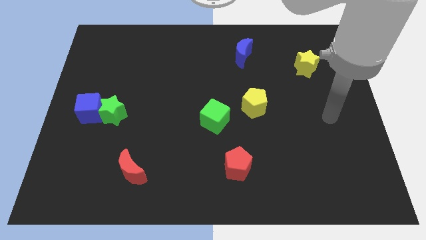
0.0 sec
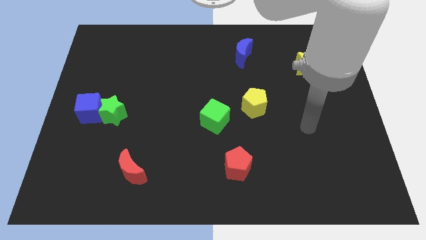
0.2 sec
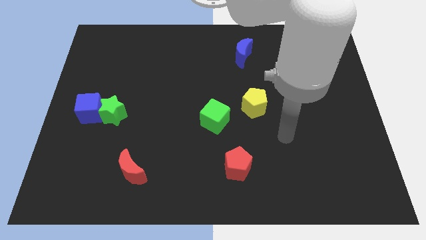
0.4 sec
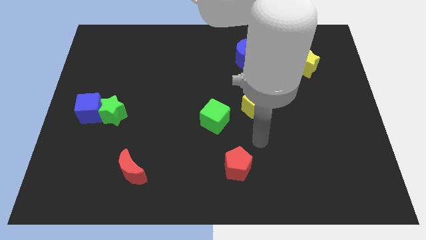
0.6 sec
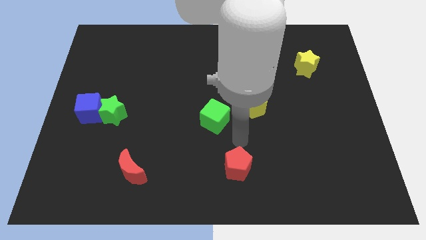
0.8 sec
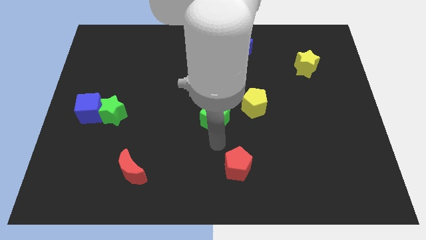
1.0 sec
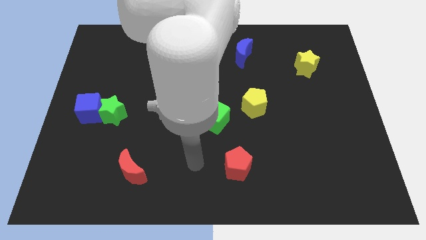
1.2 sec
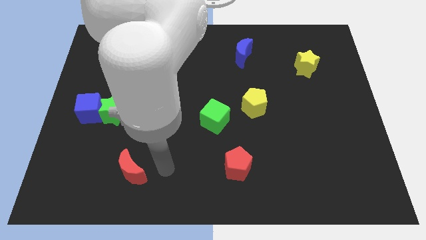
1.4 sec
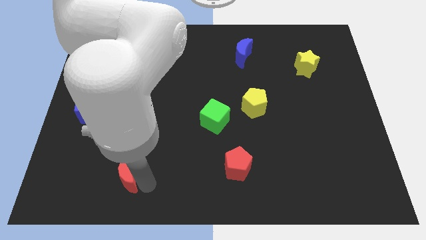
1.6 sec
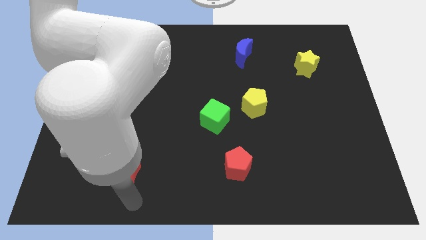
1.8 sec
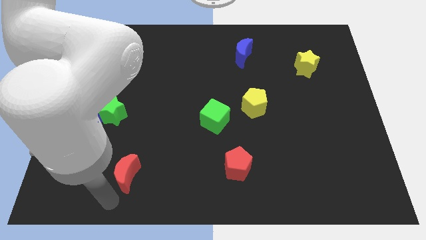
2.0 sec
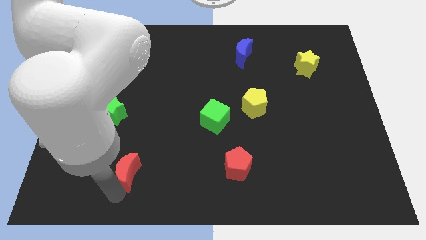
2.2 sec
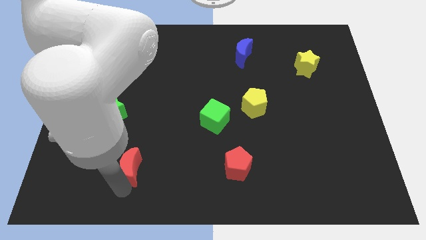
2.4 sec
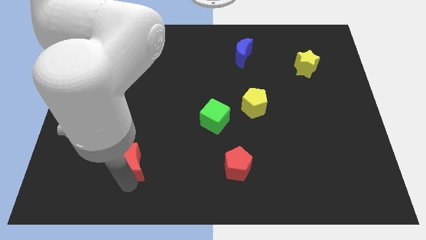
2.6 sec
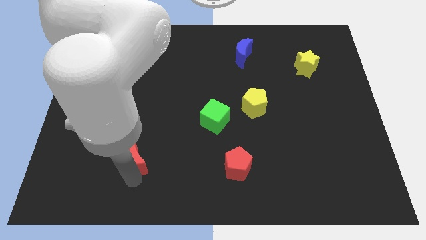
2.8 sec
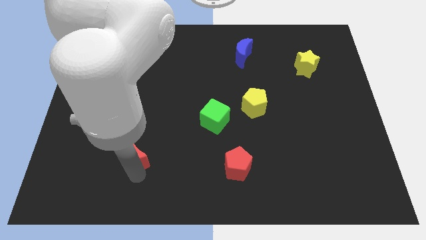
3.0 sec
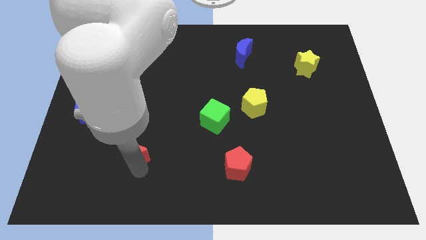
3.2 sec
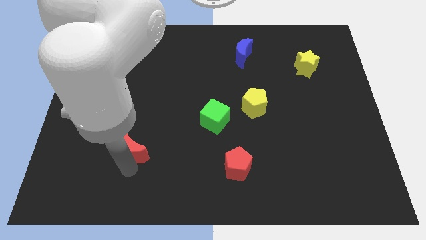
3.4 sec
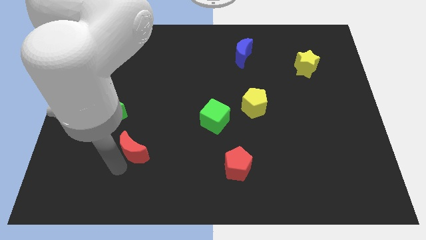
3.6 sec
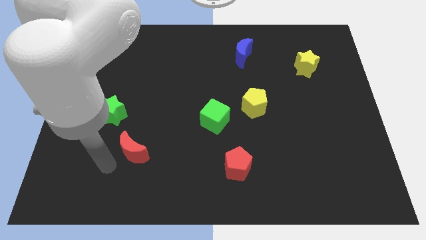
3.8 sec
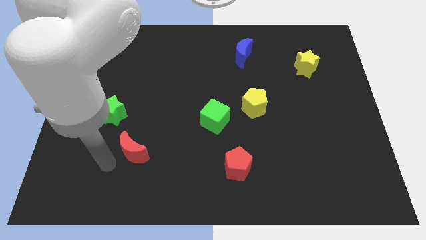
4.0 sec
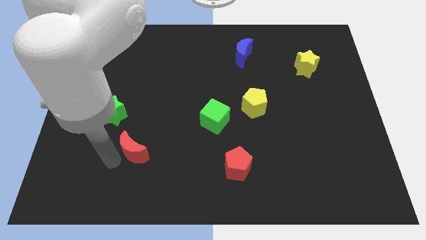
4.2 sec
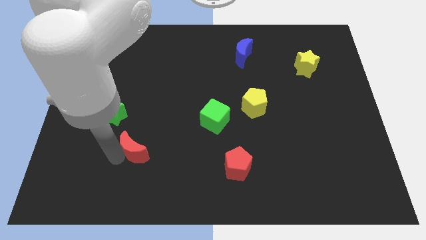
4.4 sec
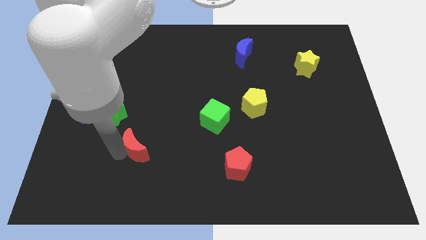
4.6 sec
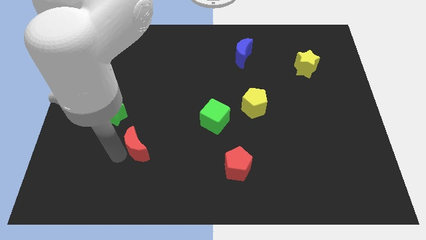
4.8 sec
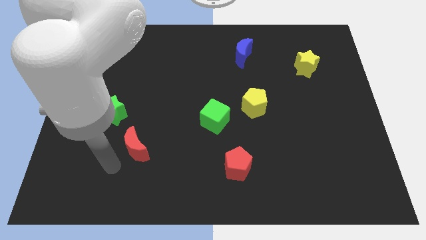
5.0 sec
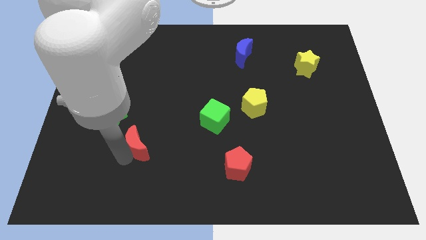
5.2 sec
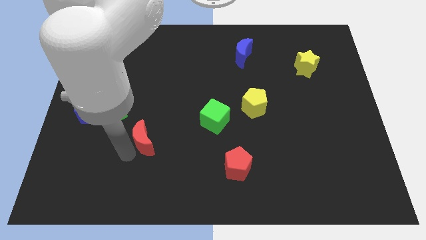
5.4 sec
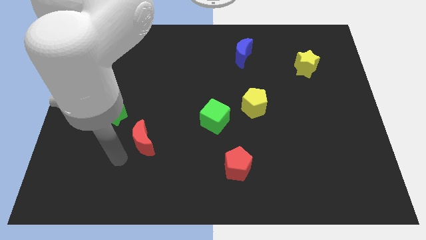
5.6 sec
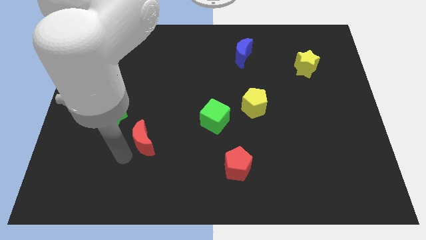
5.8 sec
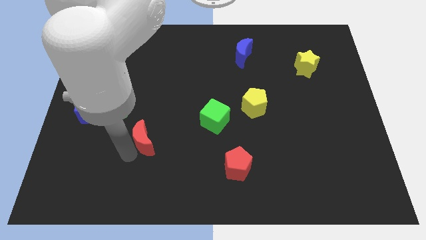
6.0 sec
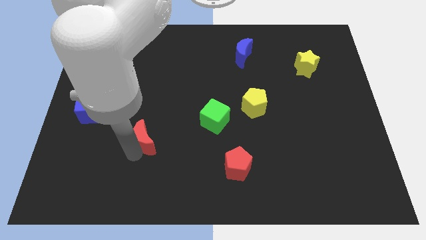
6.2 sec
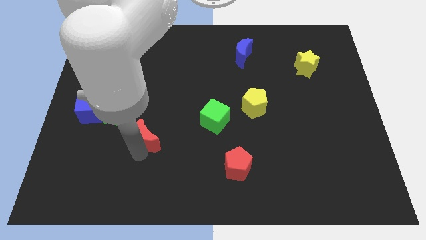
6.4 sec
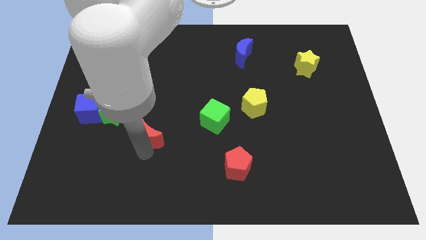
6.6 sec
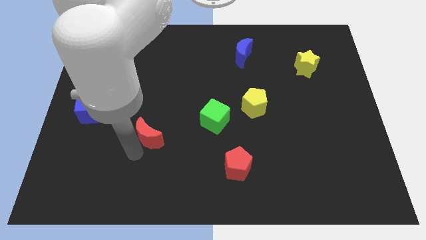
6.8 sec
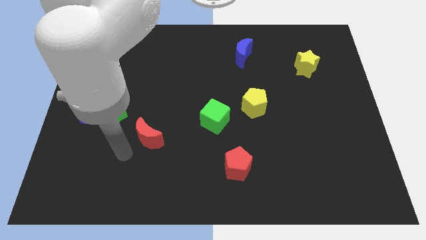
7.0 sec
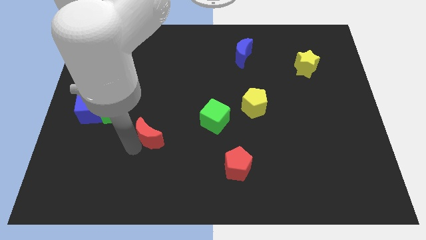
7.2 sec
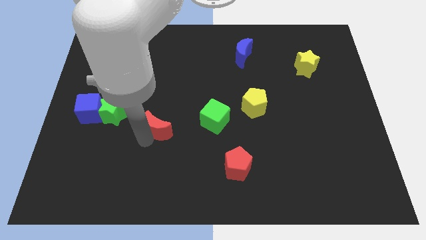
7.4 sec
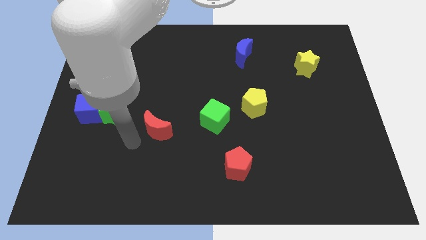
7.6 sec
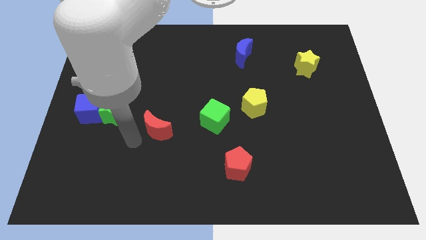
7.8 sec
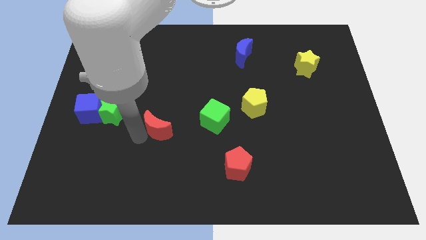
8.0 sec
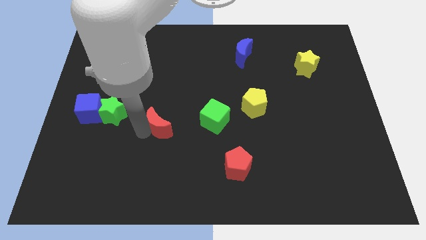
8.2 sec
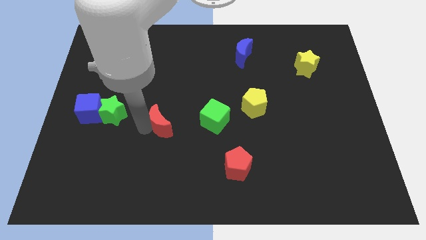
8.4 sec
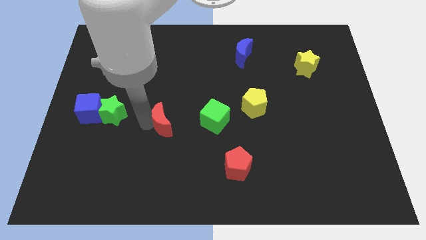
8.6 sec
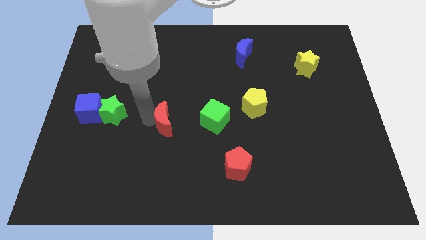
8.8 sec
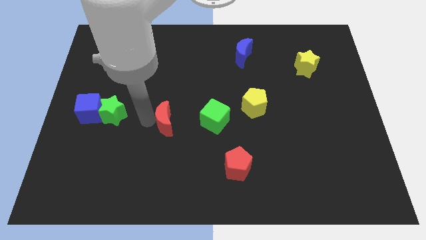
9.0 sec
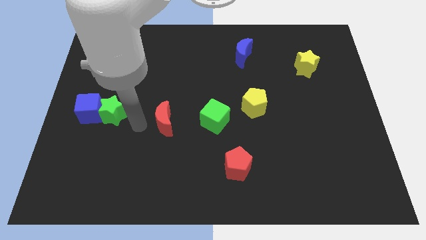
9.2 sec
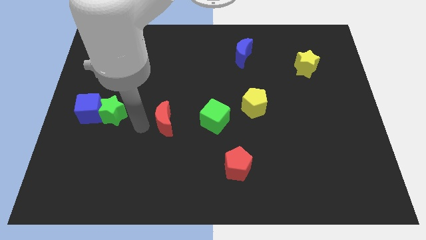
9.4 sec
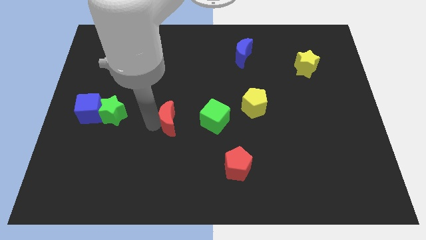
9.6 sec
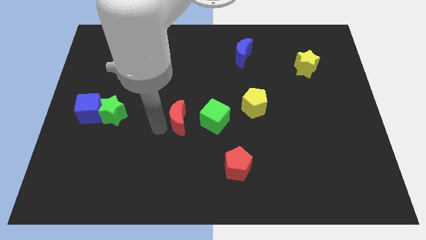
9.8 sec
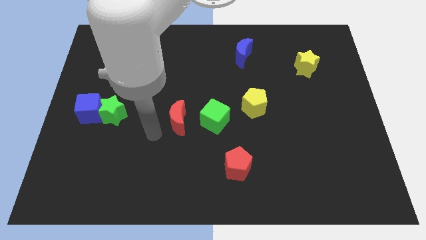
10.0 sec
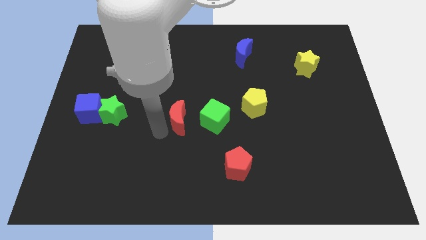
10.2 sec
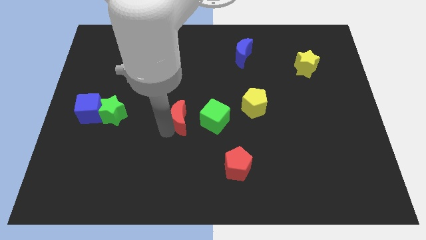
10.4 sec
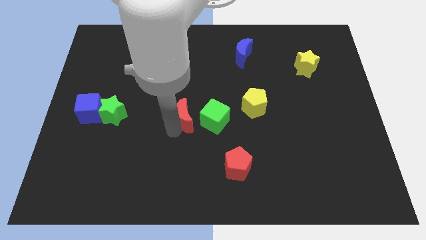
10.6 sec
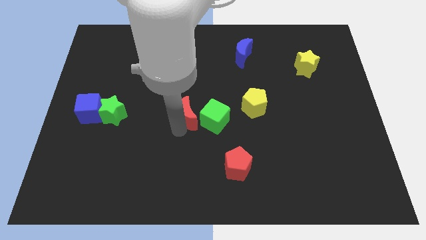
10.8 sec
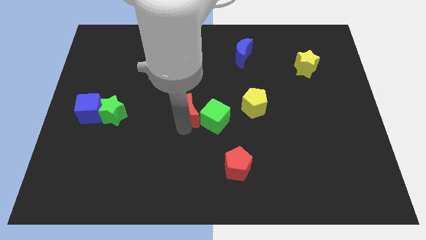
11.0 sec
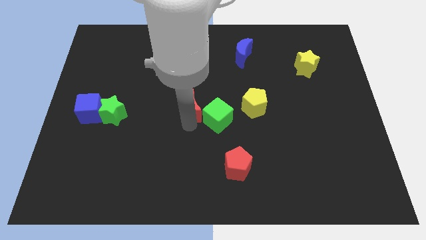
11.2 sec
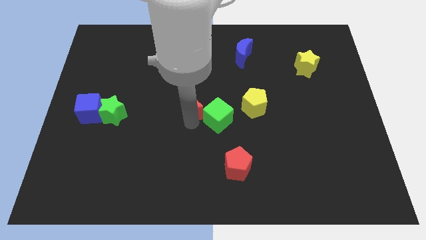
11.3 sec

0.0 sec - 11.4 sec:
slide the red moon up and to the right

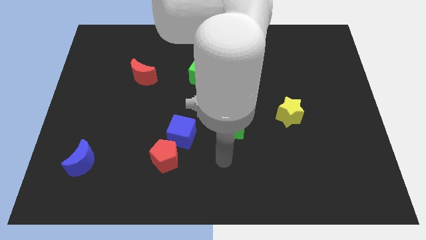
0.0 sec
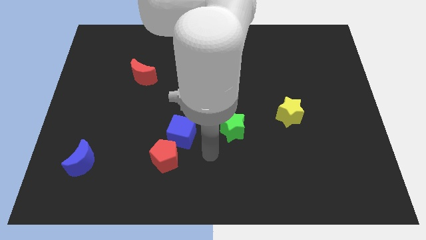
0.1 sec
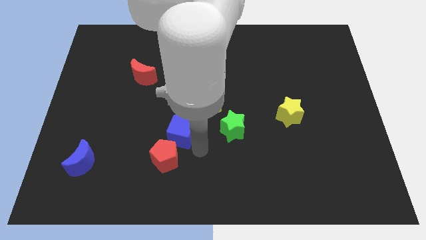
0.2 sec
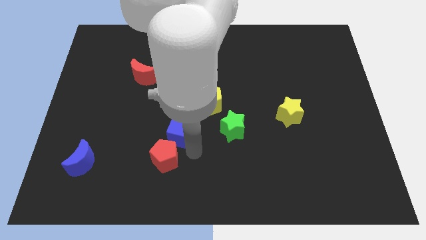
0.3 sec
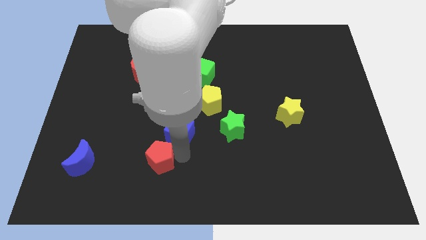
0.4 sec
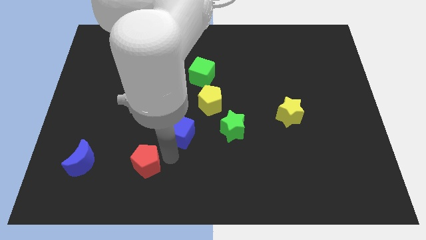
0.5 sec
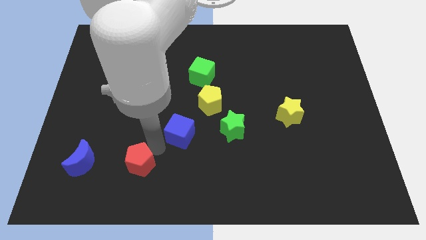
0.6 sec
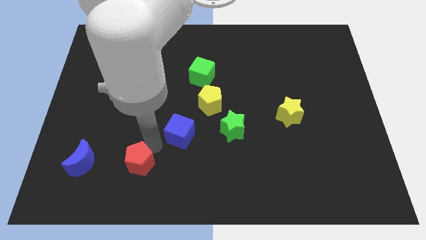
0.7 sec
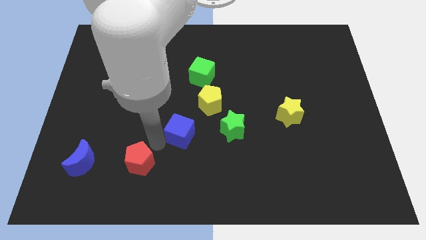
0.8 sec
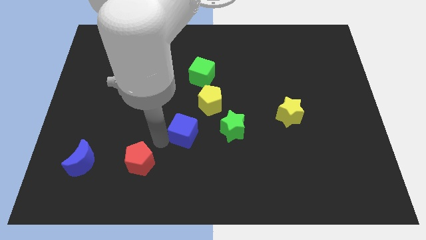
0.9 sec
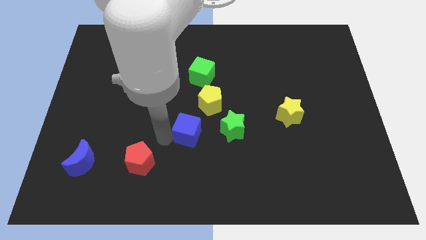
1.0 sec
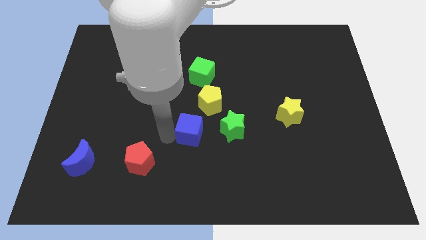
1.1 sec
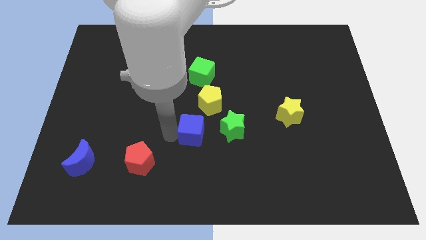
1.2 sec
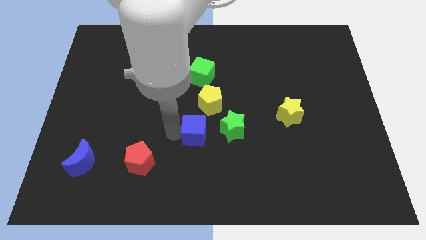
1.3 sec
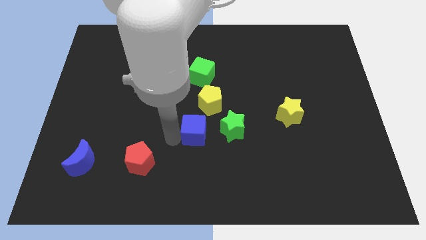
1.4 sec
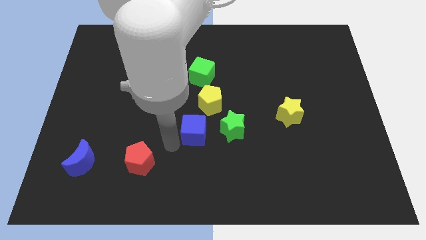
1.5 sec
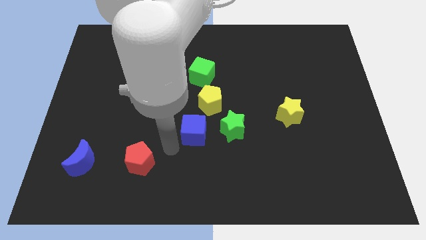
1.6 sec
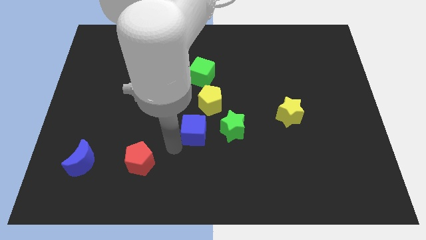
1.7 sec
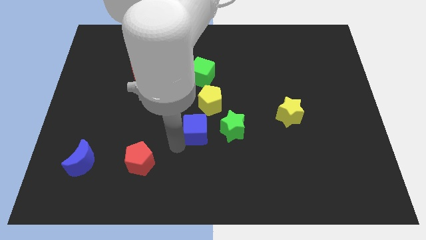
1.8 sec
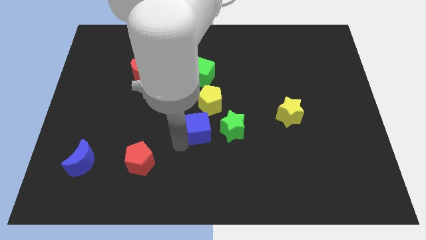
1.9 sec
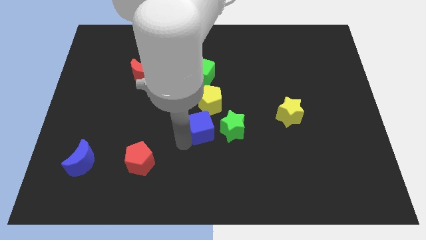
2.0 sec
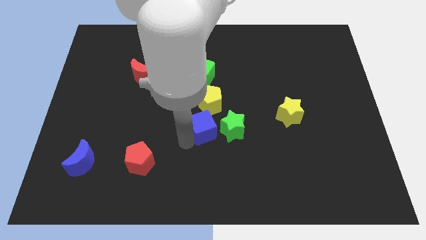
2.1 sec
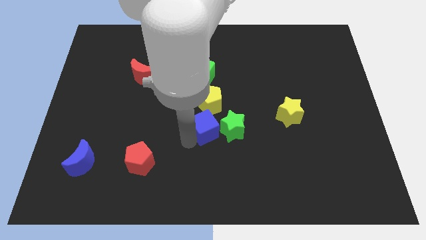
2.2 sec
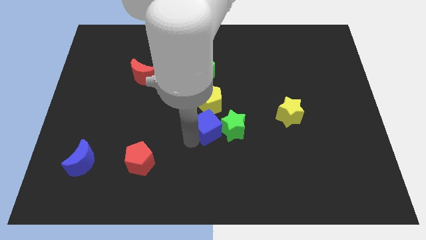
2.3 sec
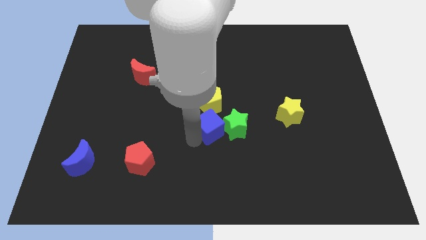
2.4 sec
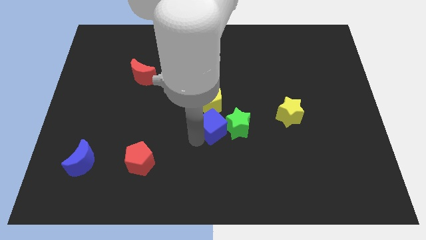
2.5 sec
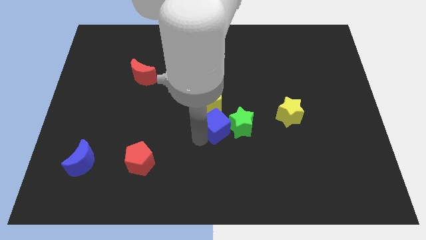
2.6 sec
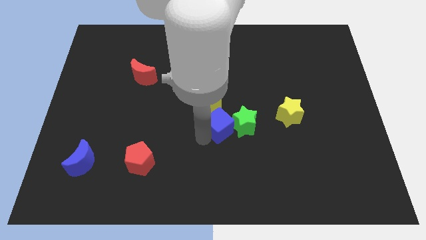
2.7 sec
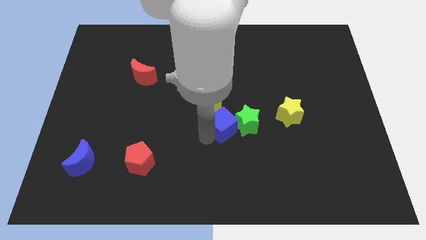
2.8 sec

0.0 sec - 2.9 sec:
slide the blue cube upwards and then right slightly
